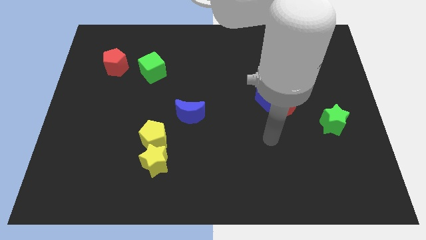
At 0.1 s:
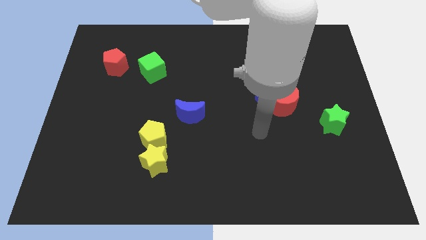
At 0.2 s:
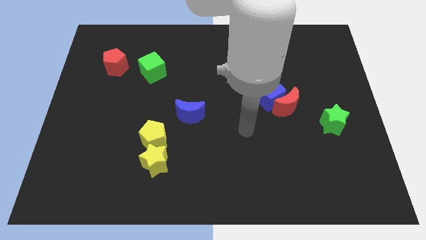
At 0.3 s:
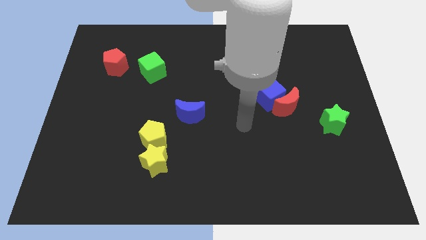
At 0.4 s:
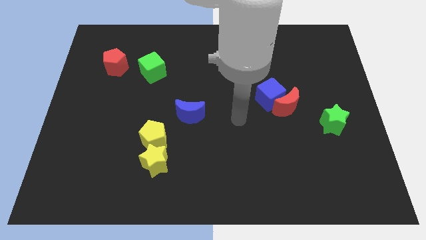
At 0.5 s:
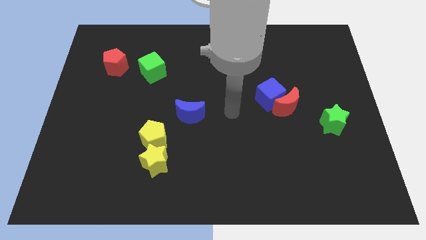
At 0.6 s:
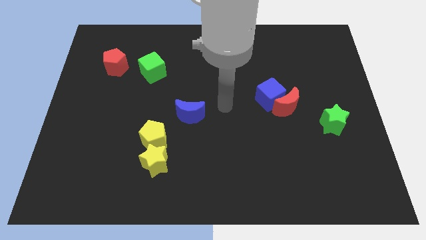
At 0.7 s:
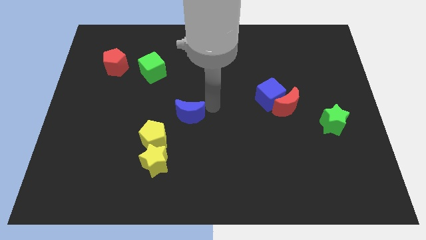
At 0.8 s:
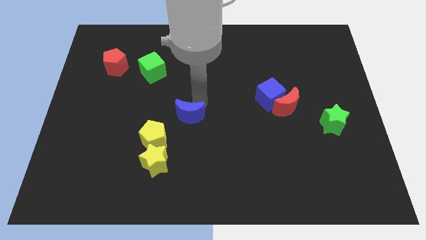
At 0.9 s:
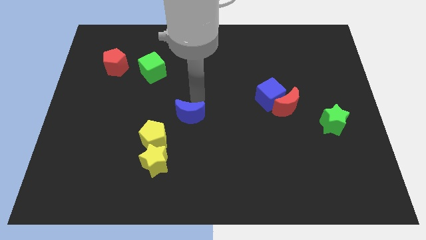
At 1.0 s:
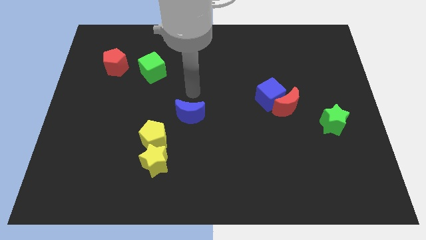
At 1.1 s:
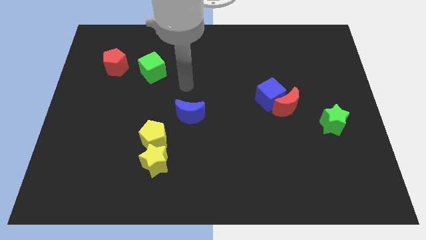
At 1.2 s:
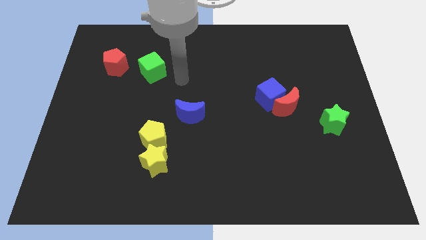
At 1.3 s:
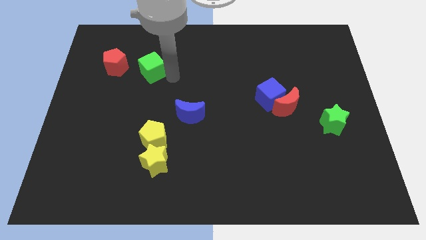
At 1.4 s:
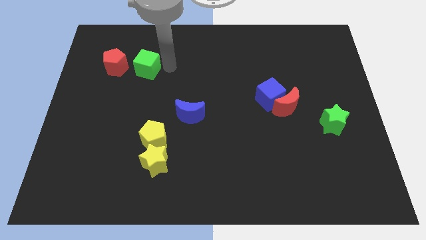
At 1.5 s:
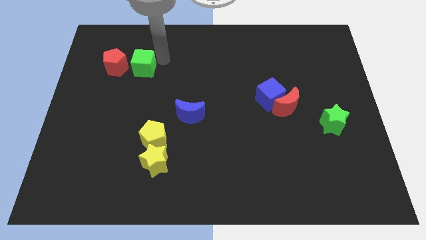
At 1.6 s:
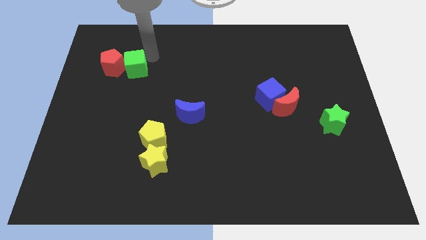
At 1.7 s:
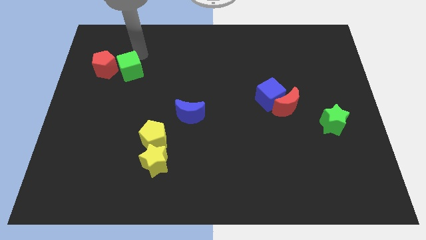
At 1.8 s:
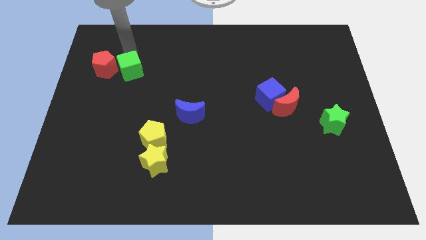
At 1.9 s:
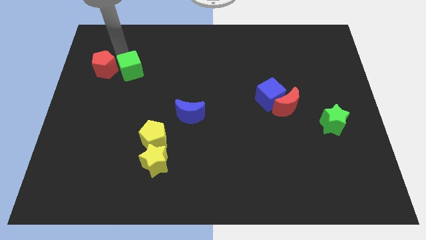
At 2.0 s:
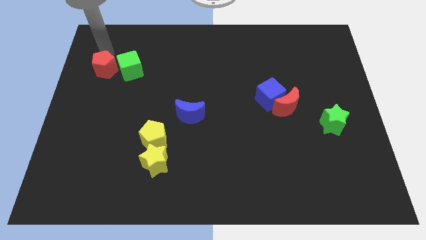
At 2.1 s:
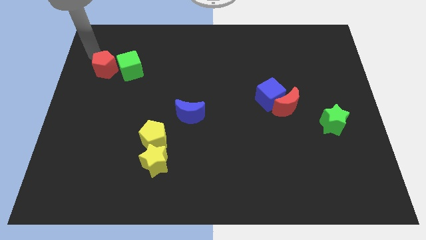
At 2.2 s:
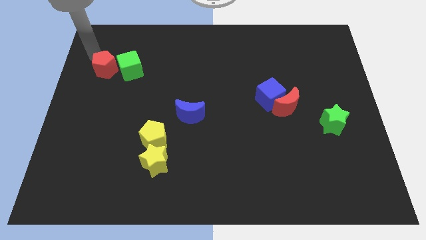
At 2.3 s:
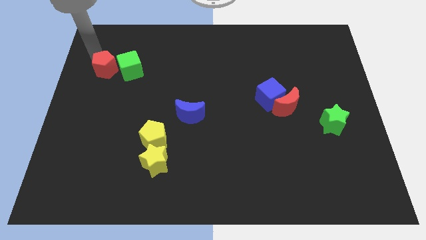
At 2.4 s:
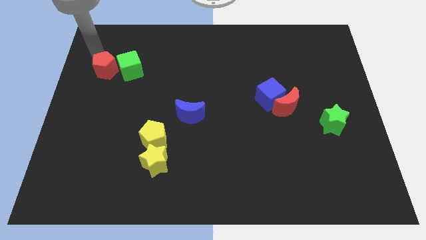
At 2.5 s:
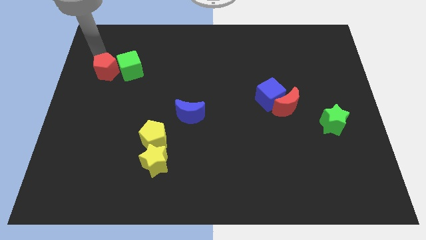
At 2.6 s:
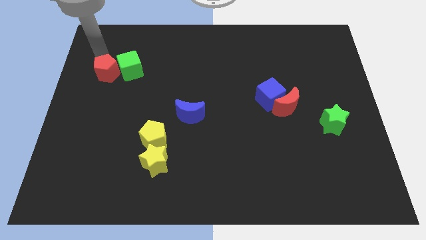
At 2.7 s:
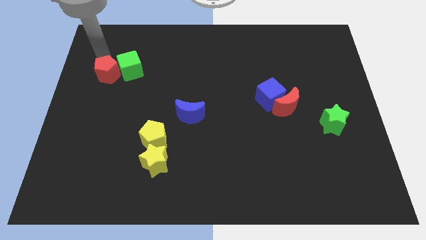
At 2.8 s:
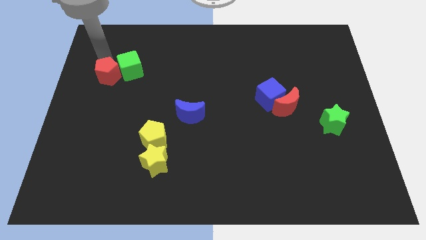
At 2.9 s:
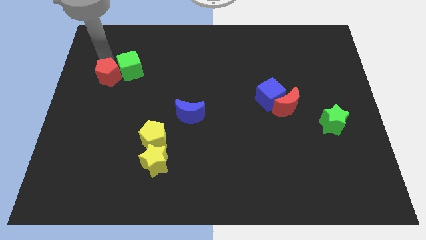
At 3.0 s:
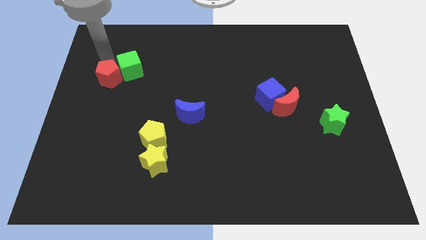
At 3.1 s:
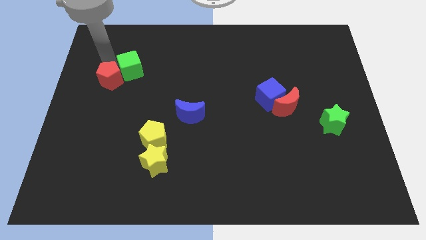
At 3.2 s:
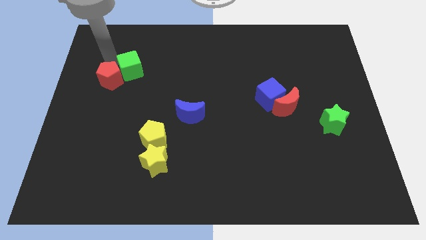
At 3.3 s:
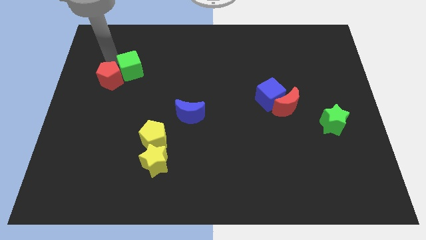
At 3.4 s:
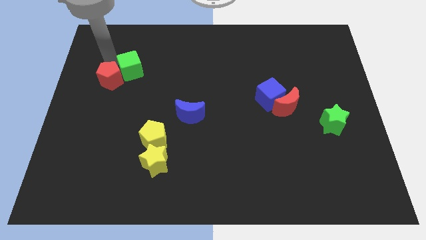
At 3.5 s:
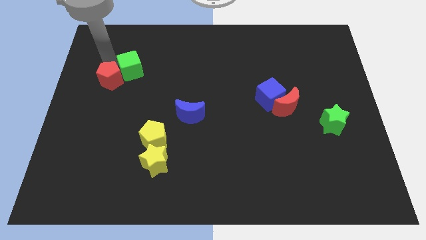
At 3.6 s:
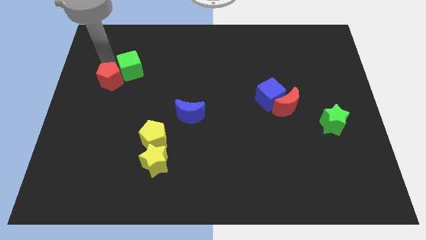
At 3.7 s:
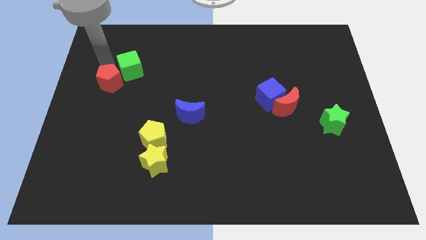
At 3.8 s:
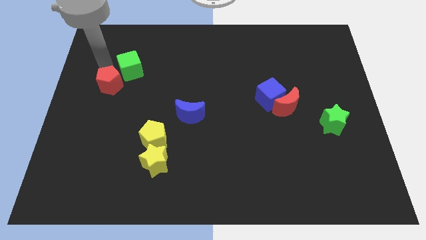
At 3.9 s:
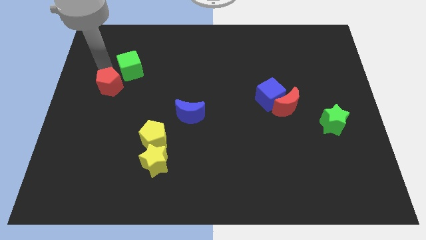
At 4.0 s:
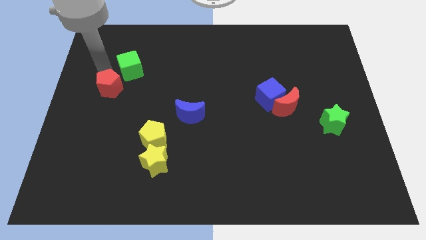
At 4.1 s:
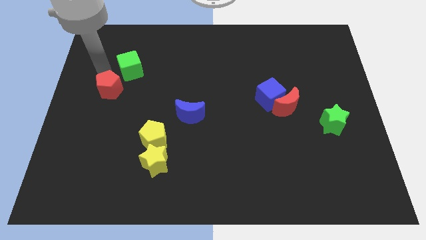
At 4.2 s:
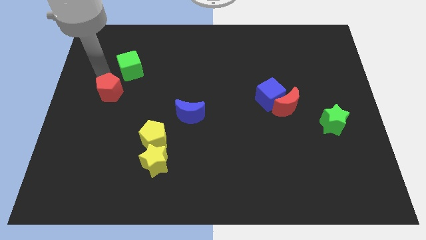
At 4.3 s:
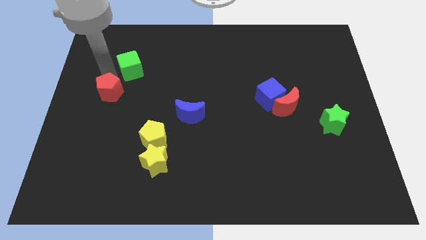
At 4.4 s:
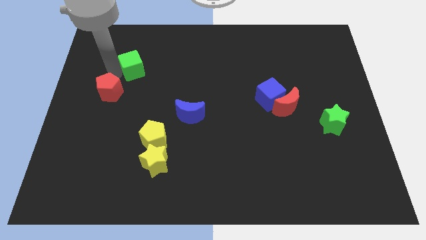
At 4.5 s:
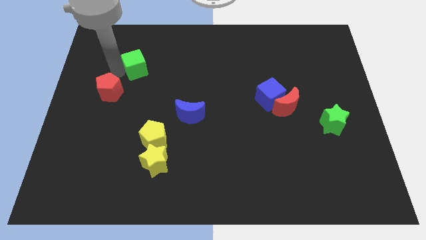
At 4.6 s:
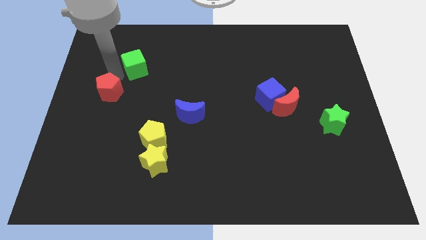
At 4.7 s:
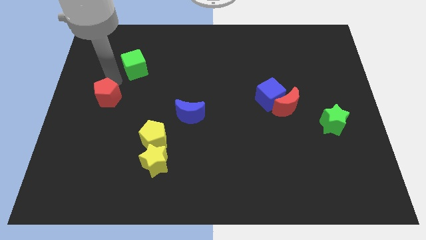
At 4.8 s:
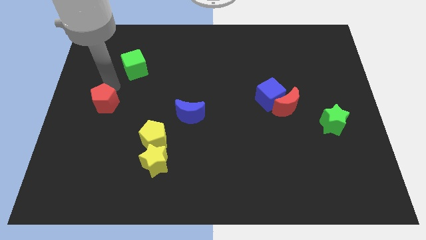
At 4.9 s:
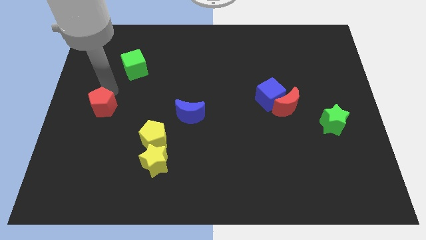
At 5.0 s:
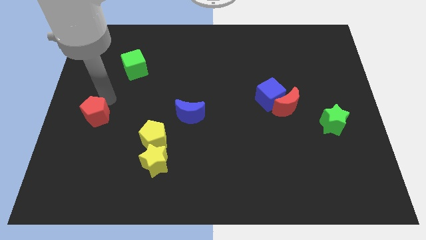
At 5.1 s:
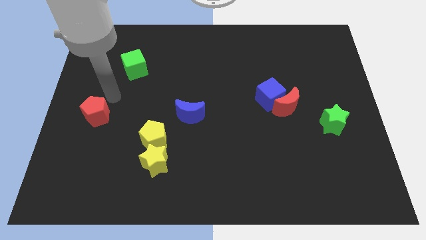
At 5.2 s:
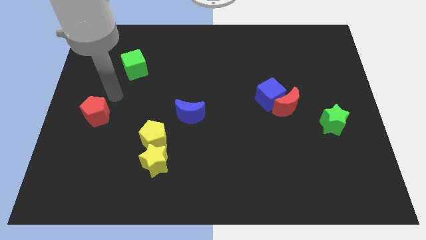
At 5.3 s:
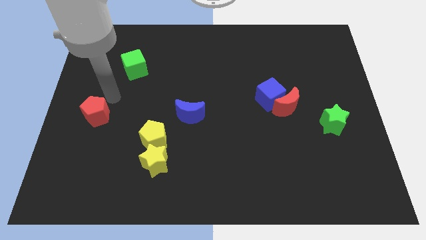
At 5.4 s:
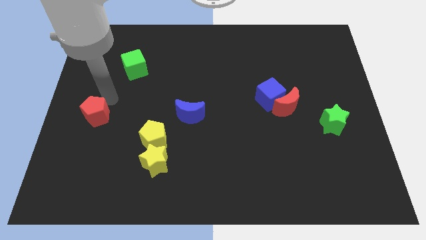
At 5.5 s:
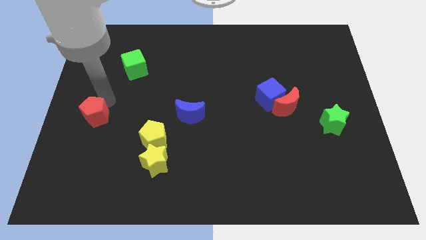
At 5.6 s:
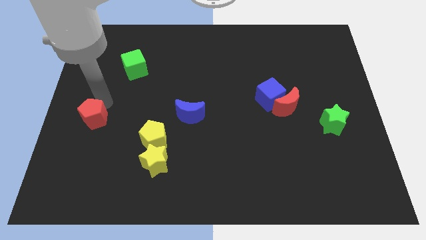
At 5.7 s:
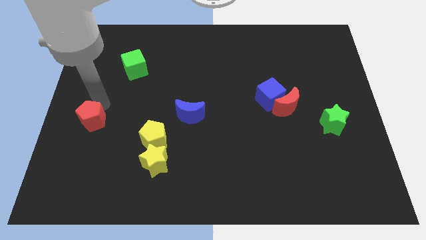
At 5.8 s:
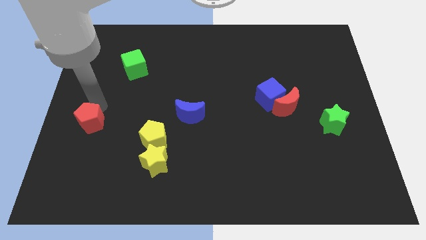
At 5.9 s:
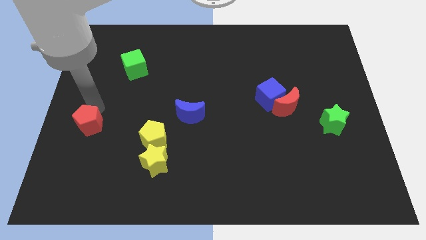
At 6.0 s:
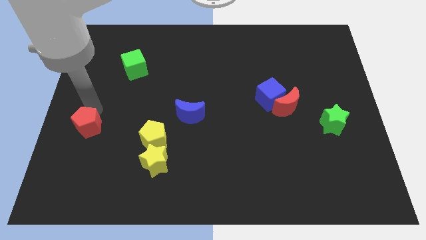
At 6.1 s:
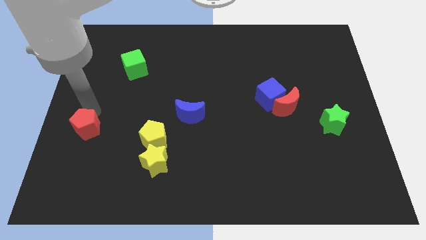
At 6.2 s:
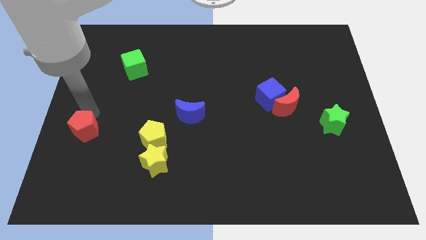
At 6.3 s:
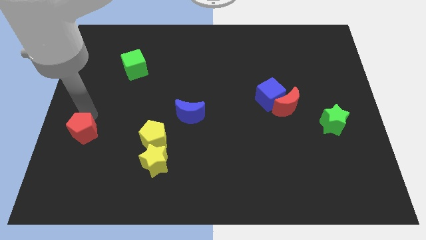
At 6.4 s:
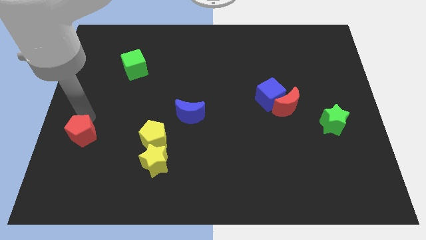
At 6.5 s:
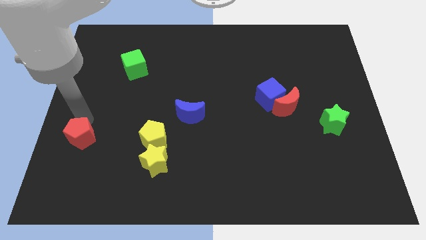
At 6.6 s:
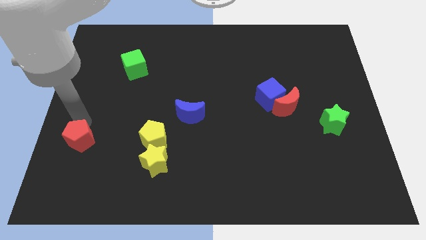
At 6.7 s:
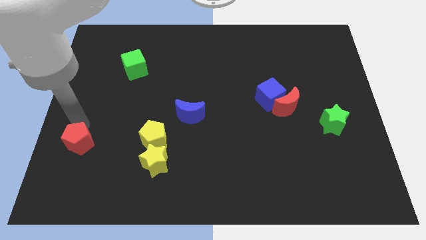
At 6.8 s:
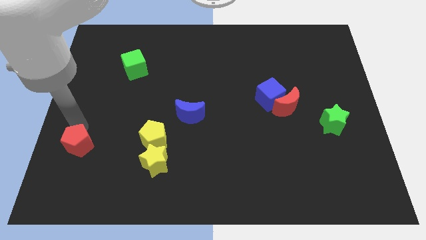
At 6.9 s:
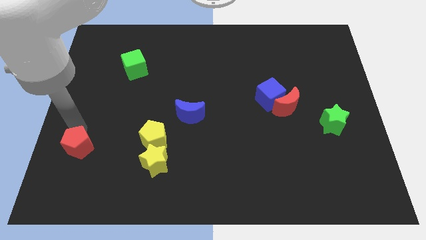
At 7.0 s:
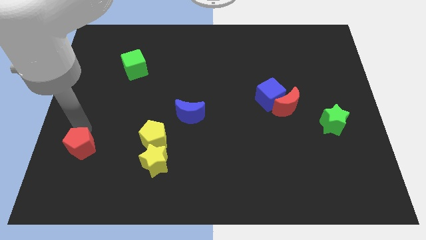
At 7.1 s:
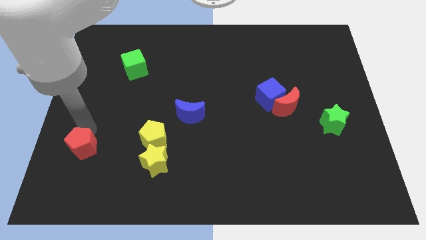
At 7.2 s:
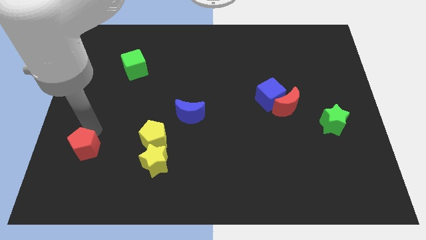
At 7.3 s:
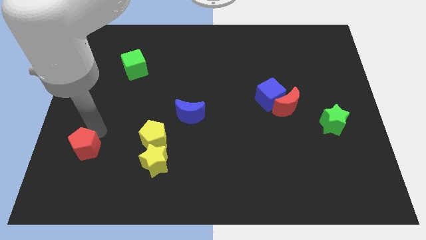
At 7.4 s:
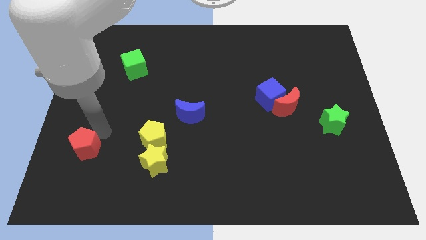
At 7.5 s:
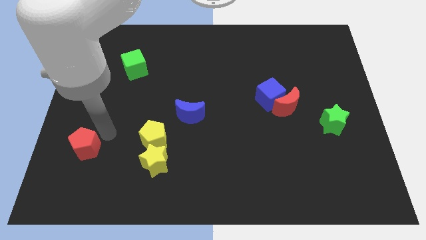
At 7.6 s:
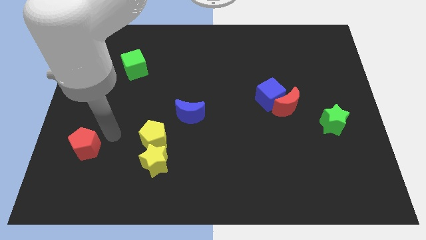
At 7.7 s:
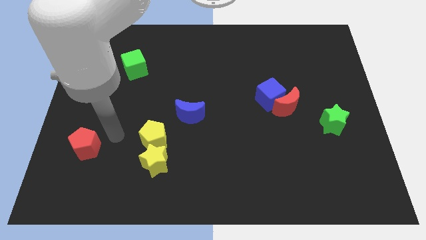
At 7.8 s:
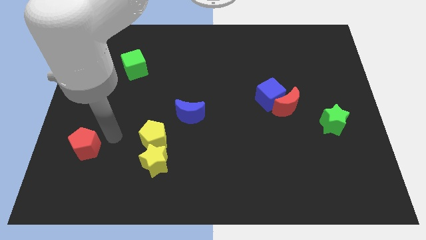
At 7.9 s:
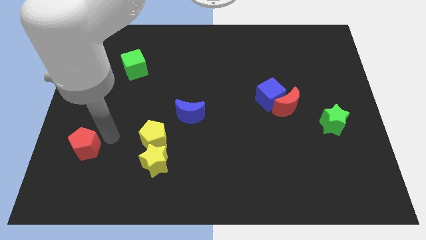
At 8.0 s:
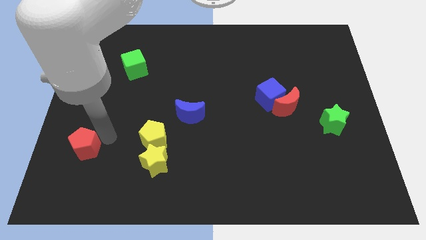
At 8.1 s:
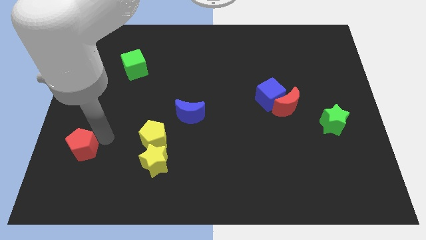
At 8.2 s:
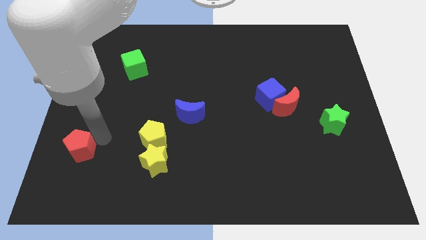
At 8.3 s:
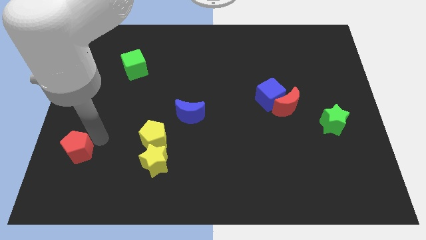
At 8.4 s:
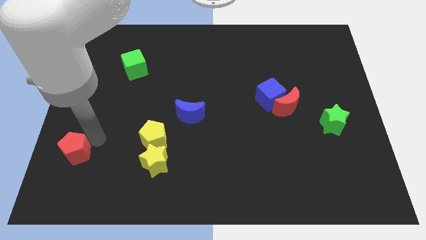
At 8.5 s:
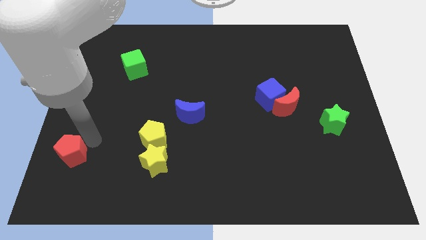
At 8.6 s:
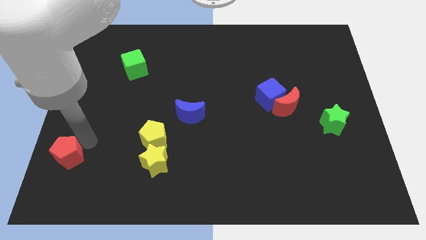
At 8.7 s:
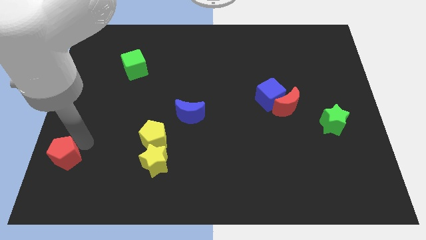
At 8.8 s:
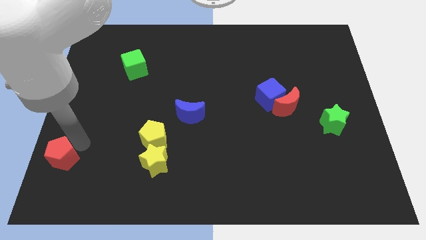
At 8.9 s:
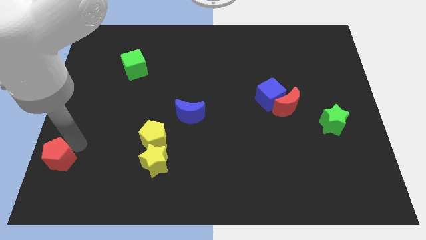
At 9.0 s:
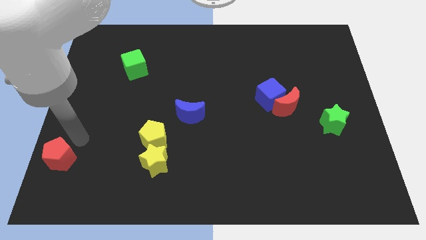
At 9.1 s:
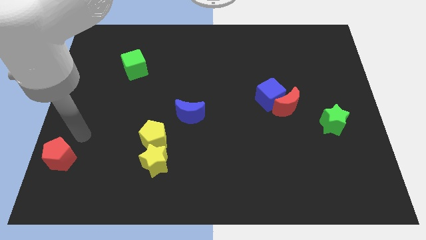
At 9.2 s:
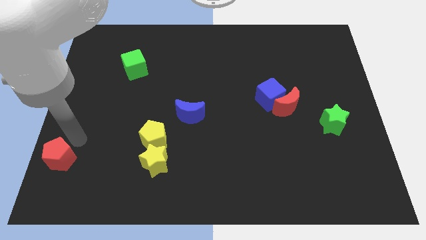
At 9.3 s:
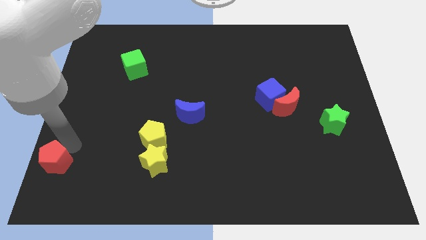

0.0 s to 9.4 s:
slide the red pentagon to the lower left corner
